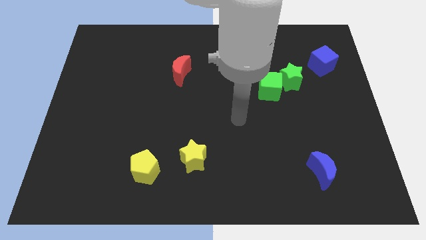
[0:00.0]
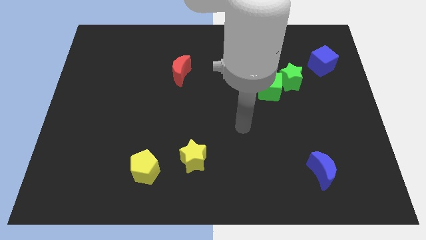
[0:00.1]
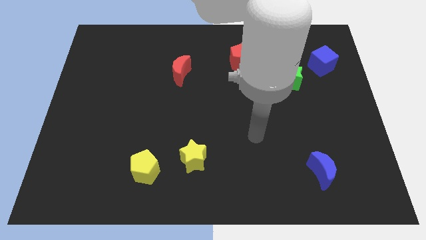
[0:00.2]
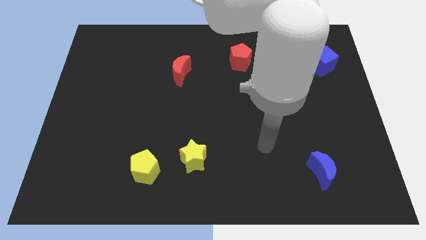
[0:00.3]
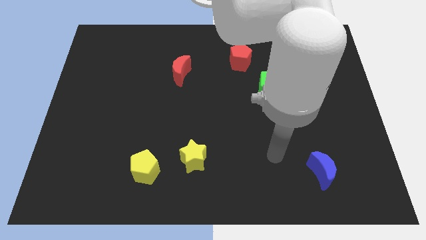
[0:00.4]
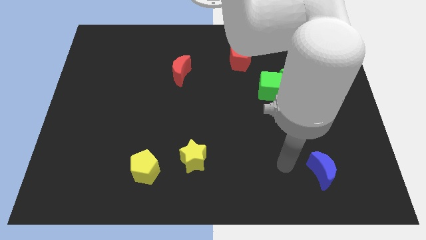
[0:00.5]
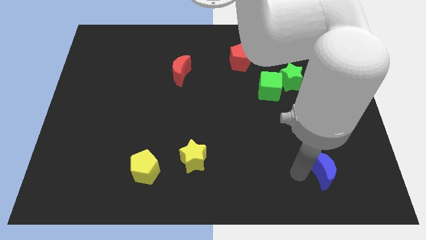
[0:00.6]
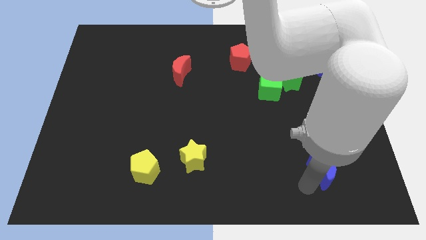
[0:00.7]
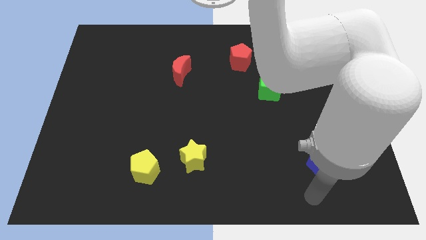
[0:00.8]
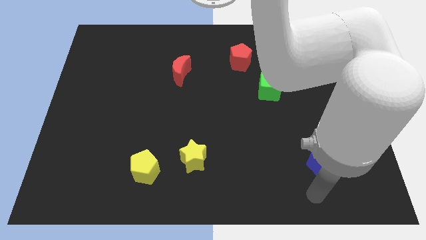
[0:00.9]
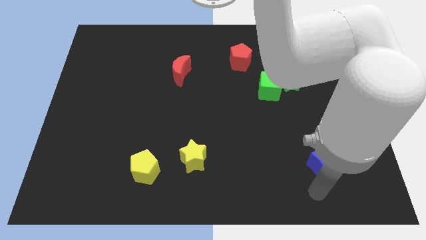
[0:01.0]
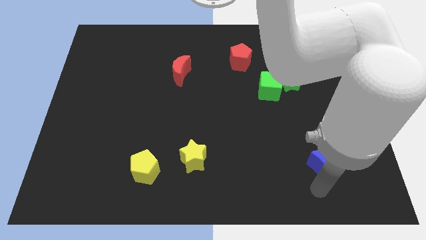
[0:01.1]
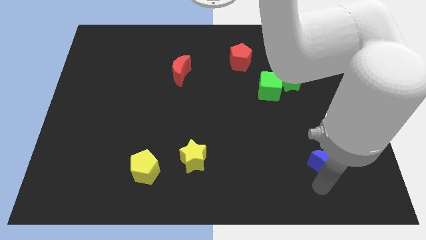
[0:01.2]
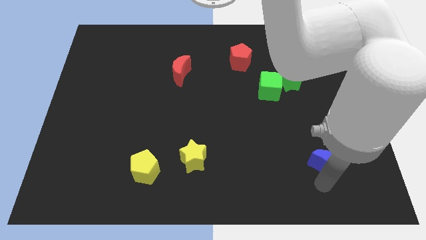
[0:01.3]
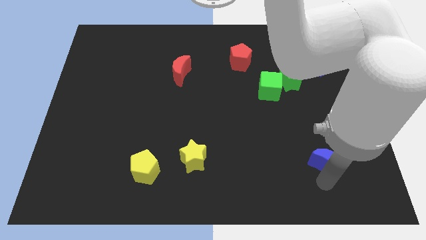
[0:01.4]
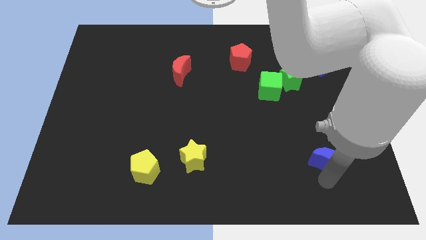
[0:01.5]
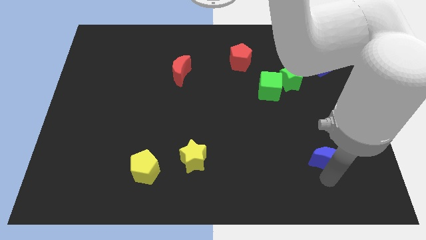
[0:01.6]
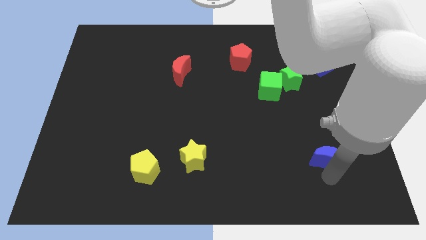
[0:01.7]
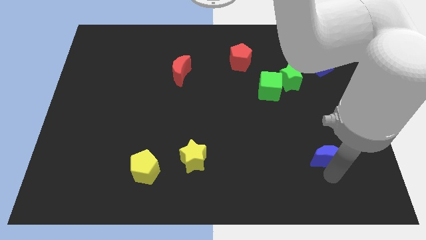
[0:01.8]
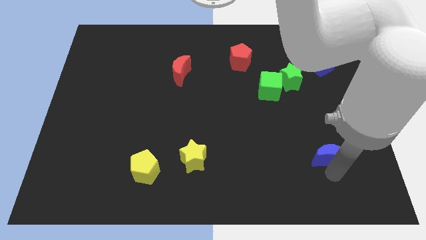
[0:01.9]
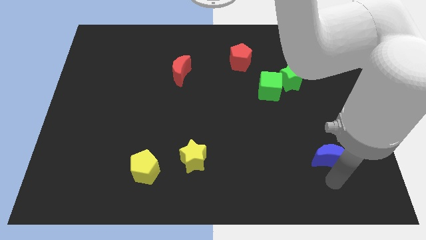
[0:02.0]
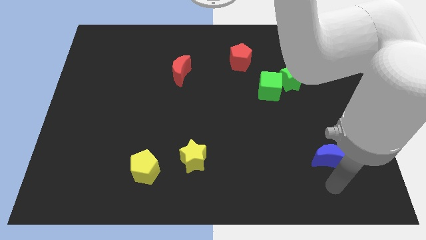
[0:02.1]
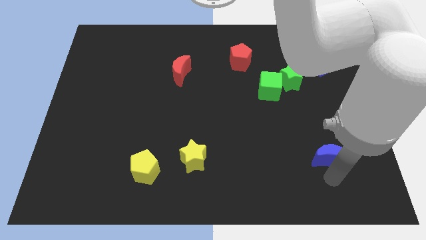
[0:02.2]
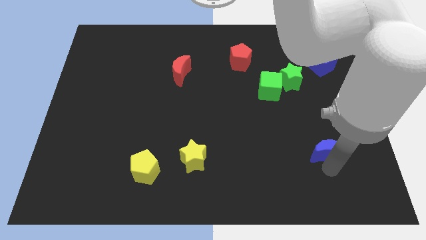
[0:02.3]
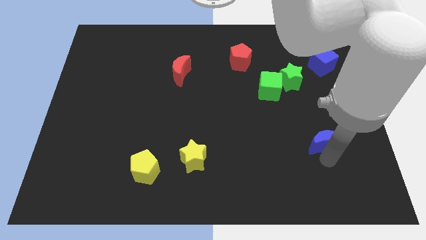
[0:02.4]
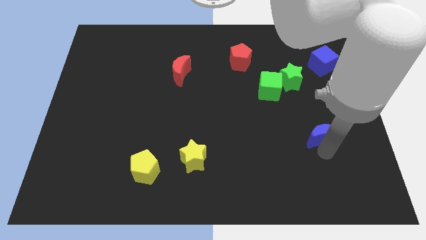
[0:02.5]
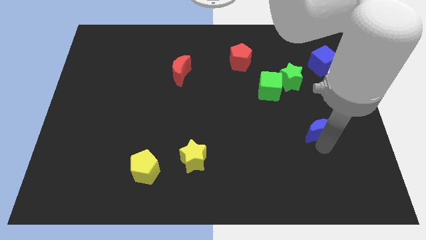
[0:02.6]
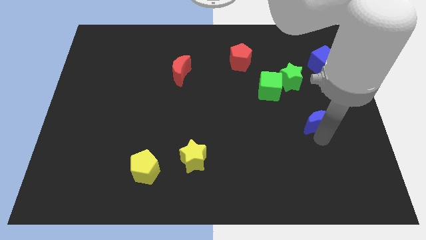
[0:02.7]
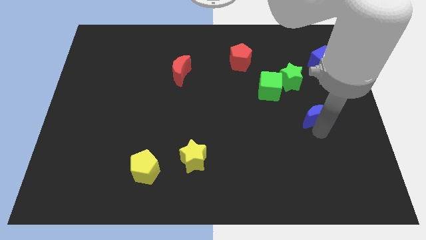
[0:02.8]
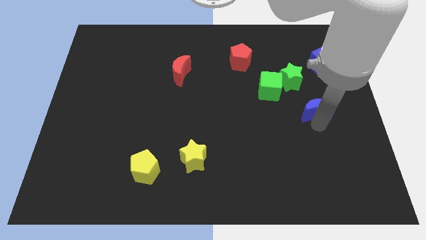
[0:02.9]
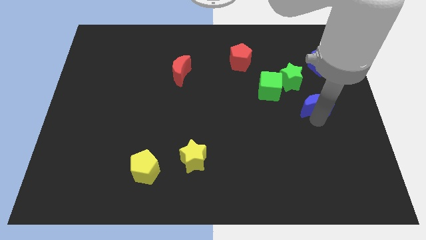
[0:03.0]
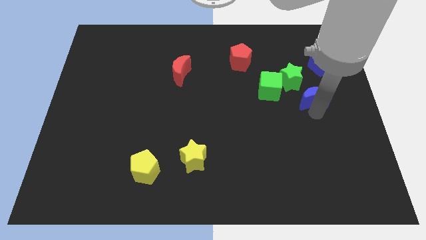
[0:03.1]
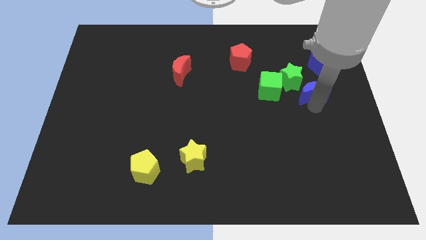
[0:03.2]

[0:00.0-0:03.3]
push the blue moon up

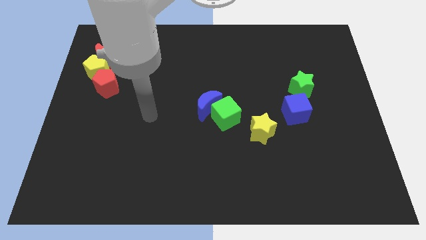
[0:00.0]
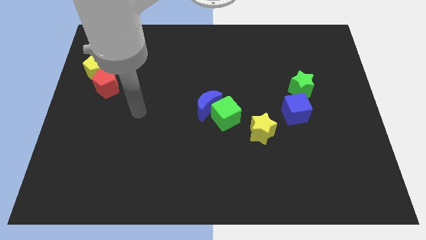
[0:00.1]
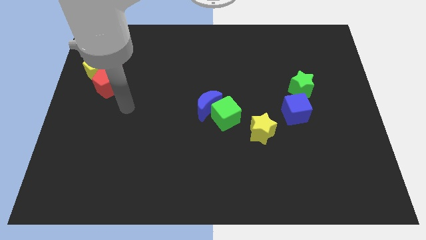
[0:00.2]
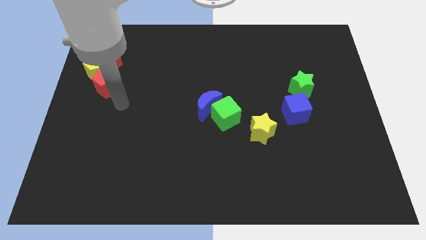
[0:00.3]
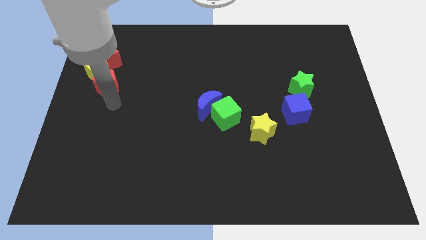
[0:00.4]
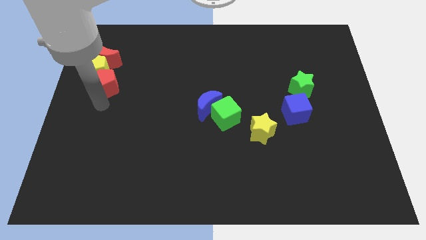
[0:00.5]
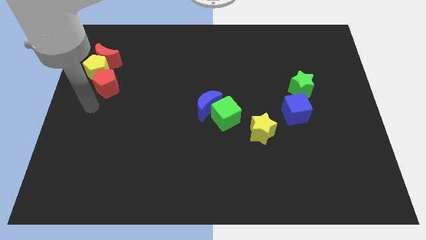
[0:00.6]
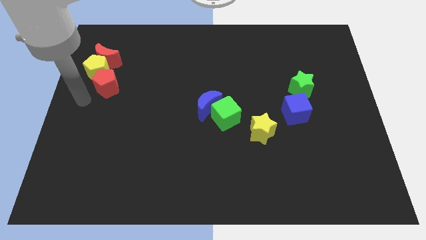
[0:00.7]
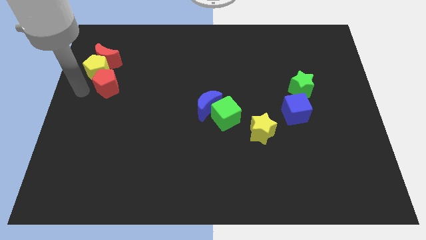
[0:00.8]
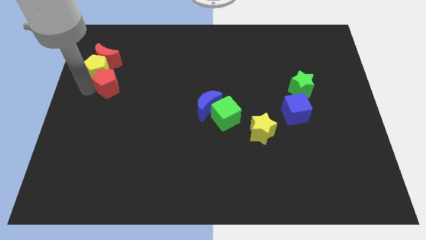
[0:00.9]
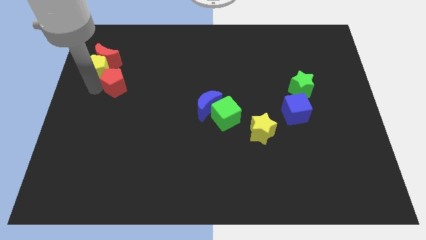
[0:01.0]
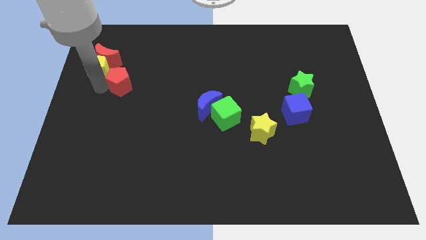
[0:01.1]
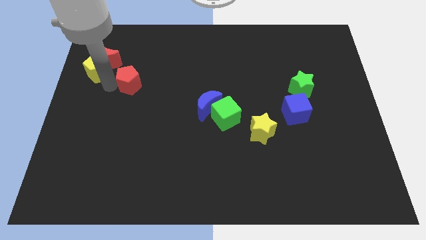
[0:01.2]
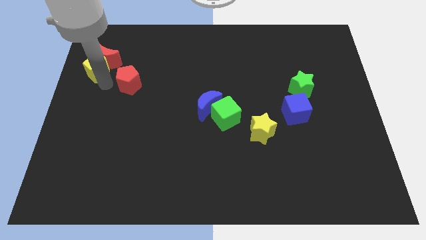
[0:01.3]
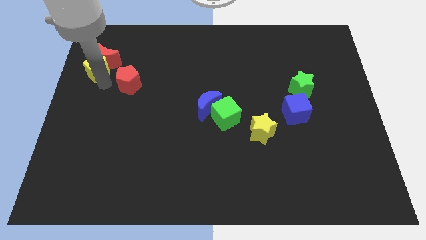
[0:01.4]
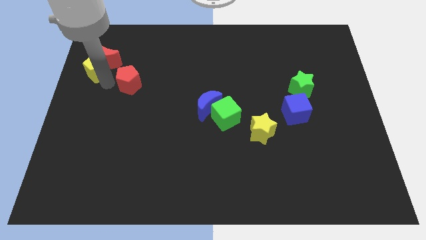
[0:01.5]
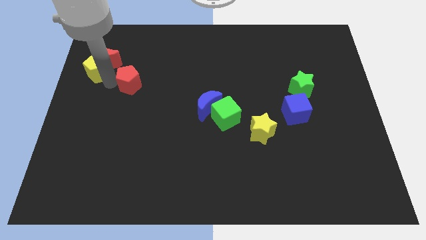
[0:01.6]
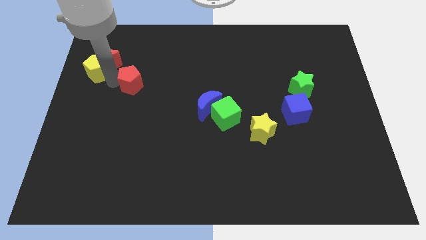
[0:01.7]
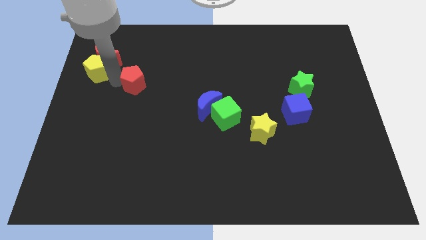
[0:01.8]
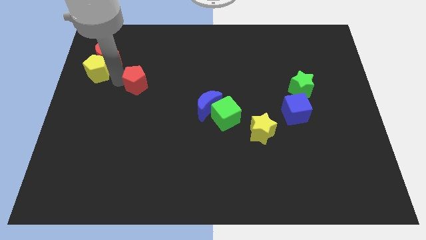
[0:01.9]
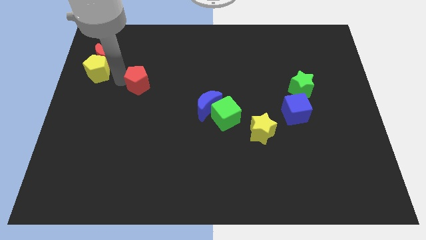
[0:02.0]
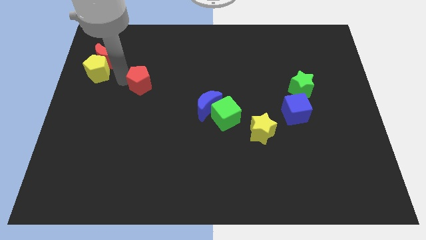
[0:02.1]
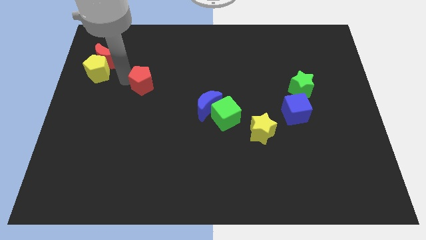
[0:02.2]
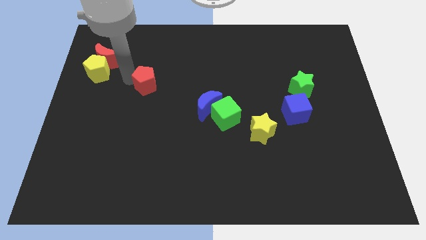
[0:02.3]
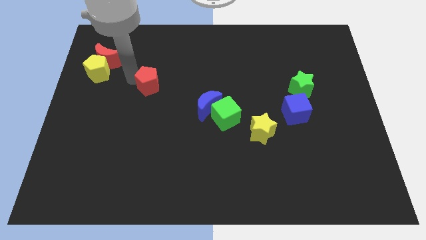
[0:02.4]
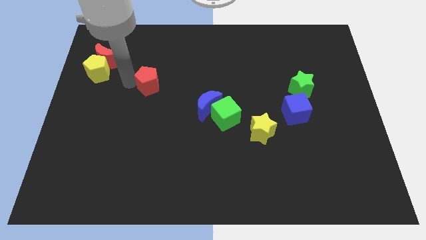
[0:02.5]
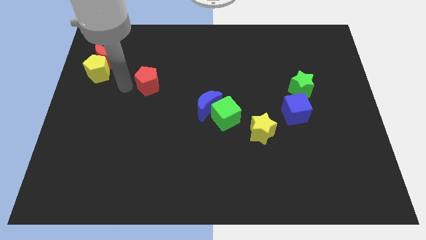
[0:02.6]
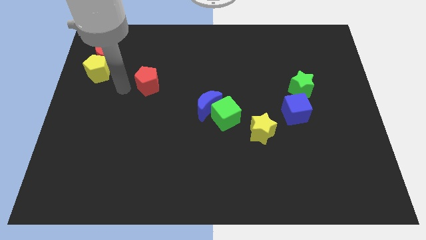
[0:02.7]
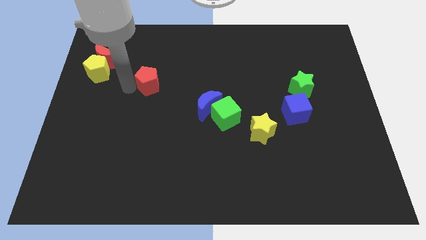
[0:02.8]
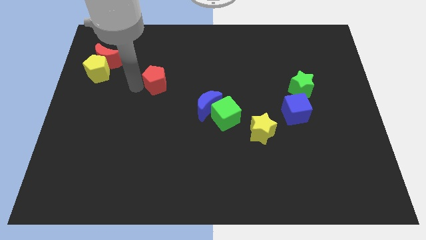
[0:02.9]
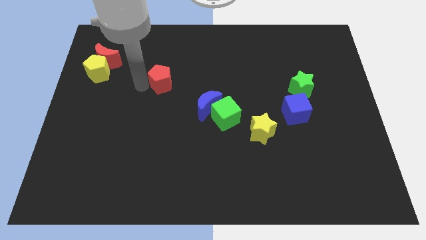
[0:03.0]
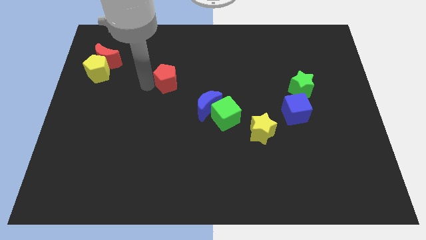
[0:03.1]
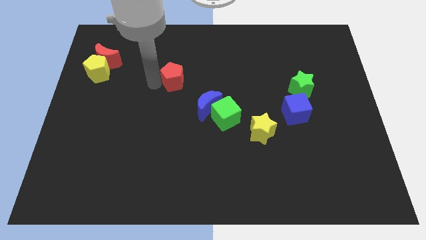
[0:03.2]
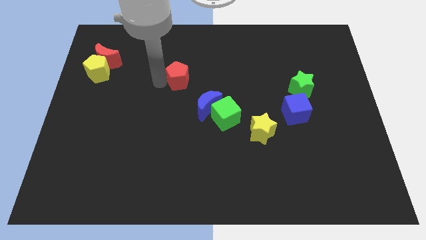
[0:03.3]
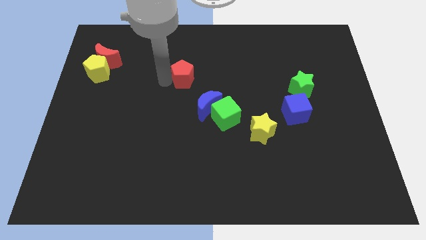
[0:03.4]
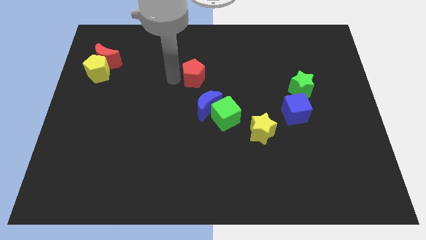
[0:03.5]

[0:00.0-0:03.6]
push the red pentagon right

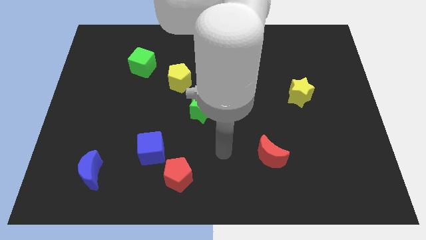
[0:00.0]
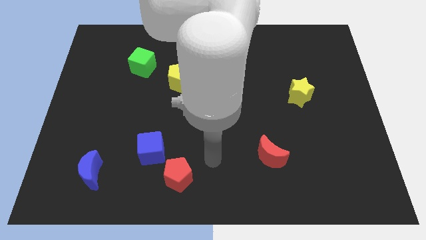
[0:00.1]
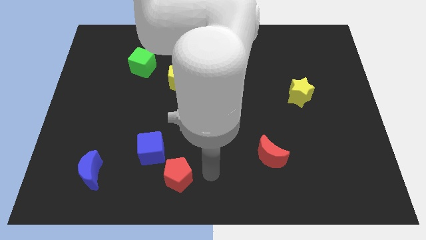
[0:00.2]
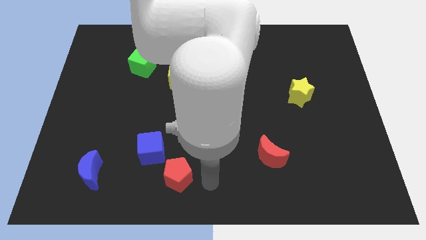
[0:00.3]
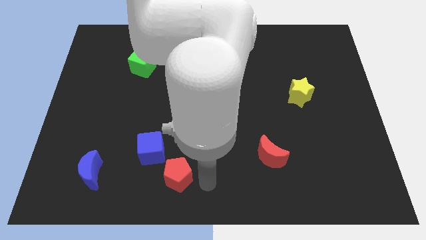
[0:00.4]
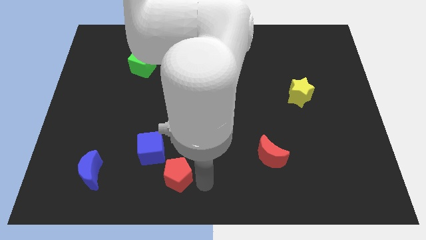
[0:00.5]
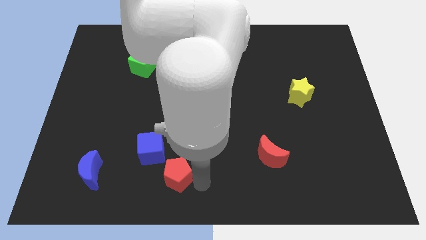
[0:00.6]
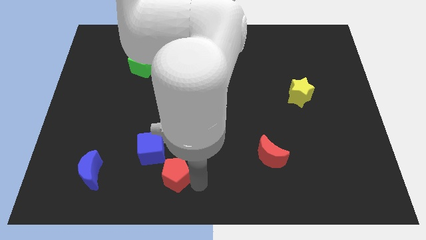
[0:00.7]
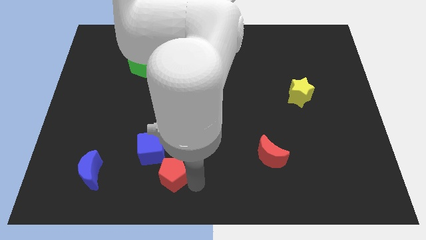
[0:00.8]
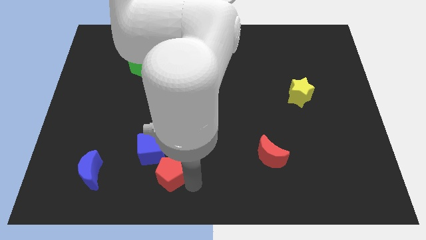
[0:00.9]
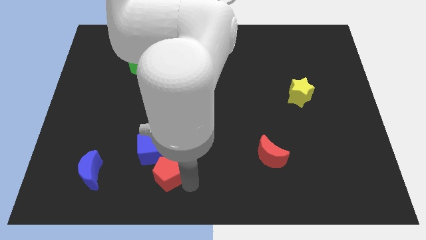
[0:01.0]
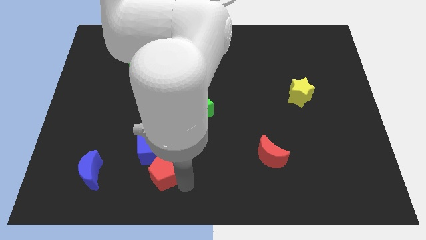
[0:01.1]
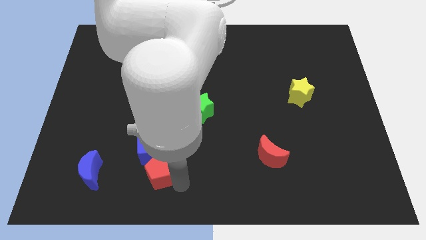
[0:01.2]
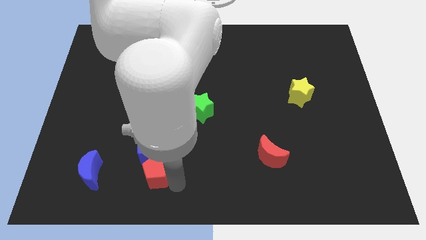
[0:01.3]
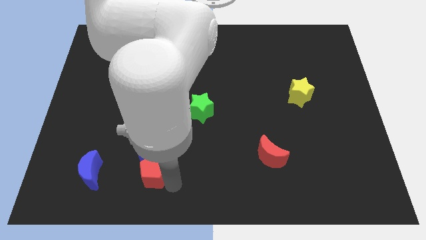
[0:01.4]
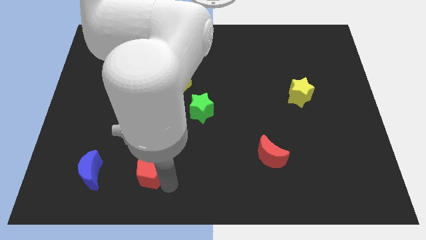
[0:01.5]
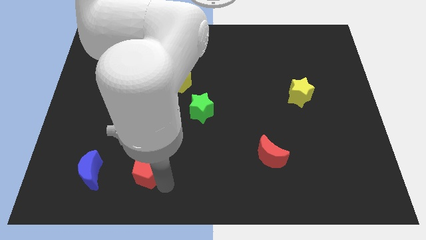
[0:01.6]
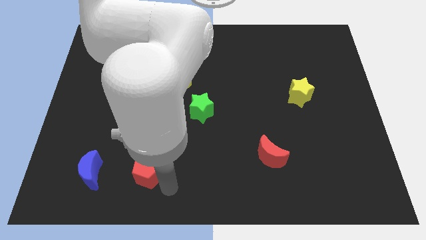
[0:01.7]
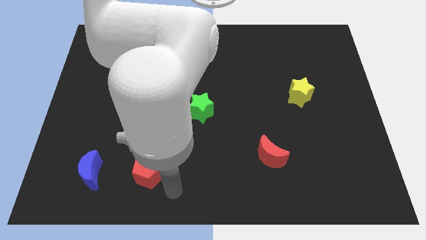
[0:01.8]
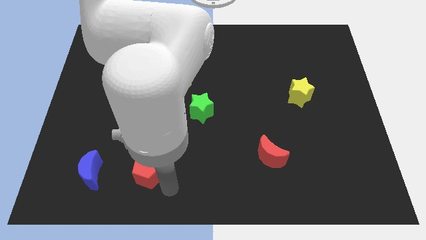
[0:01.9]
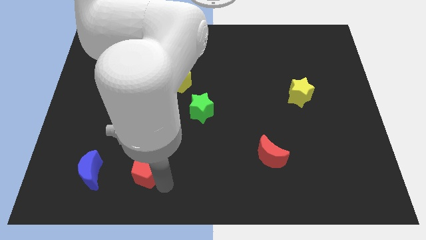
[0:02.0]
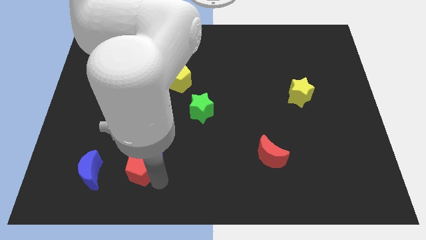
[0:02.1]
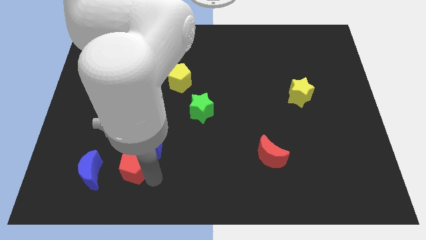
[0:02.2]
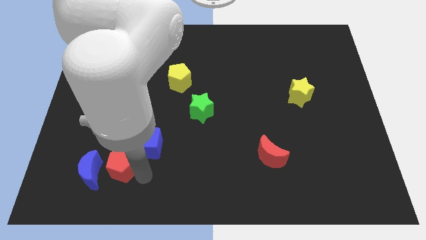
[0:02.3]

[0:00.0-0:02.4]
slightly slide the red pentagon upwards and then to the left
